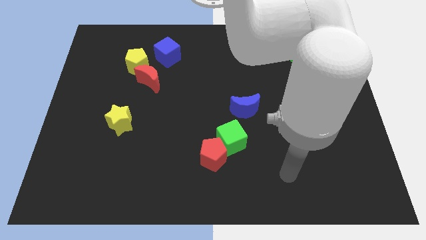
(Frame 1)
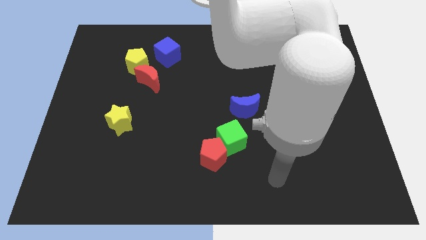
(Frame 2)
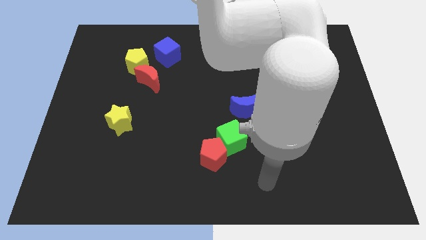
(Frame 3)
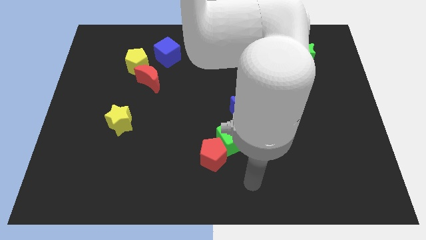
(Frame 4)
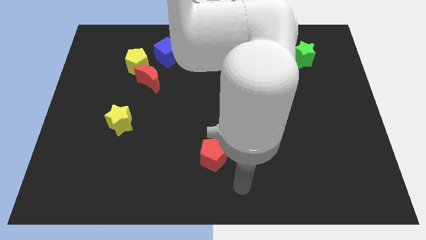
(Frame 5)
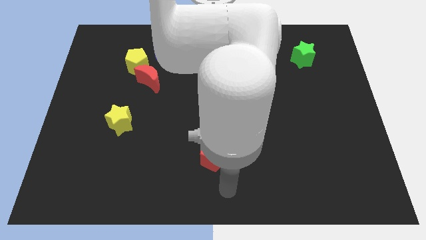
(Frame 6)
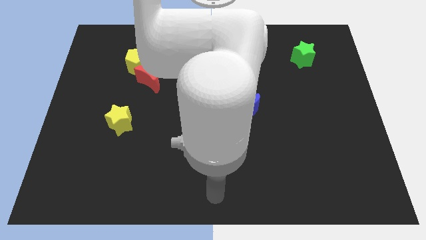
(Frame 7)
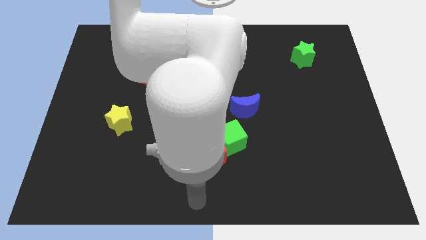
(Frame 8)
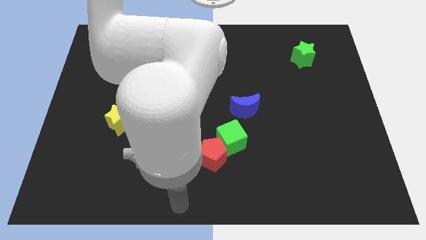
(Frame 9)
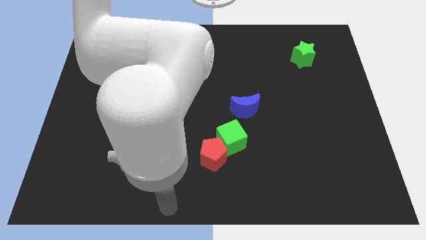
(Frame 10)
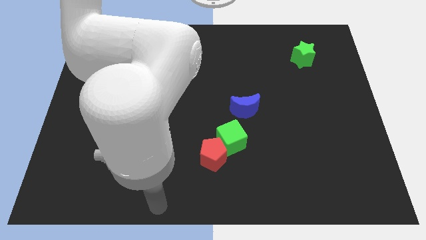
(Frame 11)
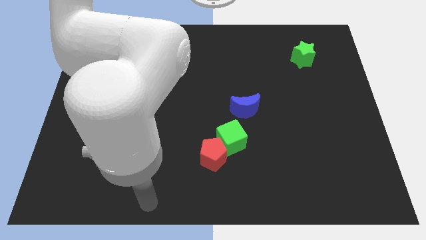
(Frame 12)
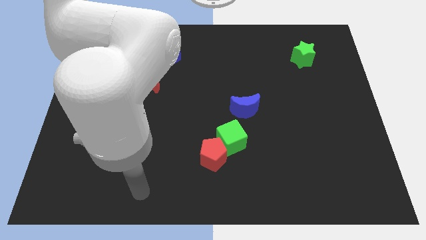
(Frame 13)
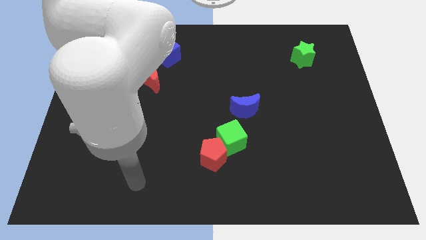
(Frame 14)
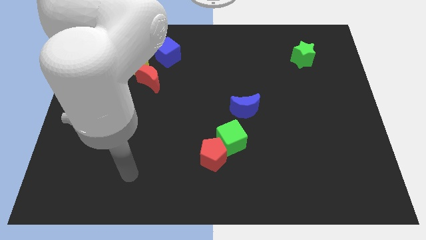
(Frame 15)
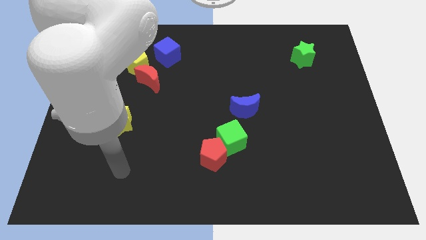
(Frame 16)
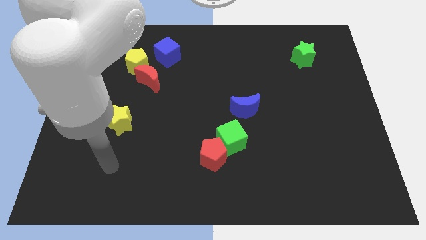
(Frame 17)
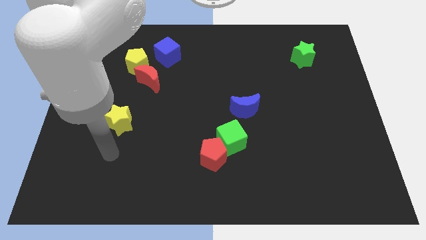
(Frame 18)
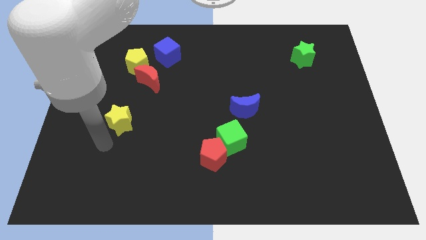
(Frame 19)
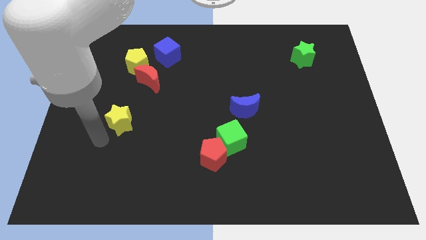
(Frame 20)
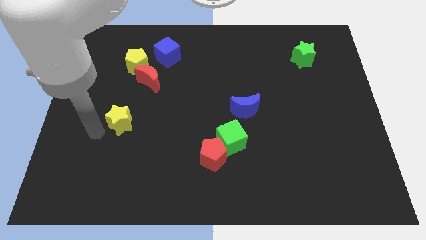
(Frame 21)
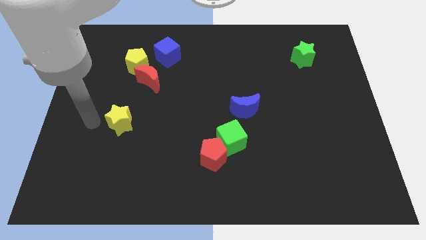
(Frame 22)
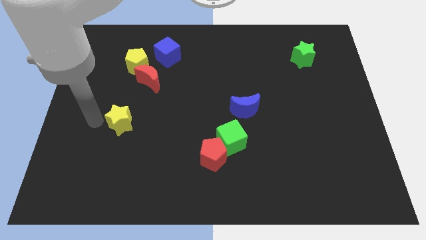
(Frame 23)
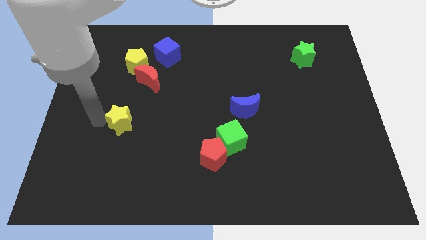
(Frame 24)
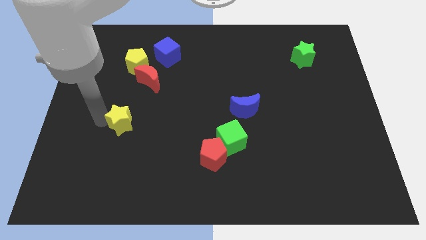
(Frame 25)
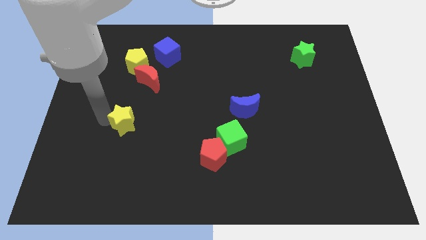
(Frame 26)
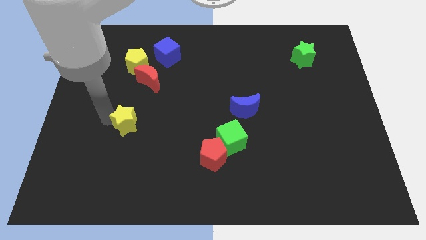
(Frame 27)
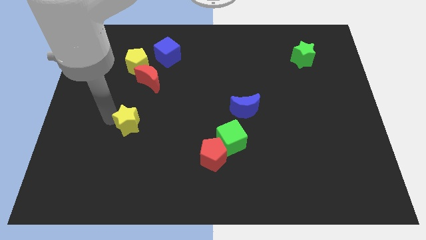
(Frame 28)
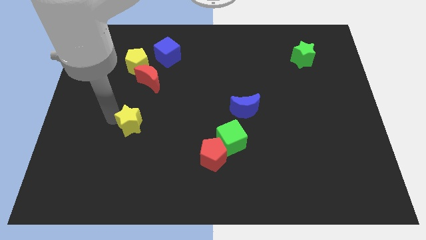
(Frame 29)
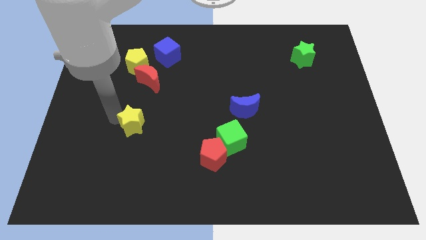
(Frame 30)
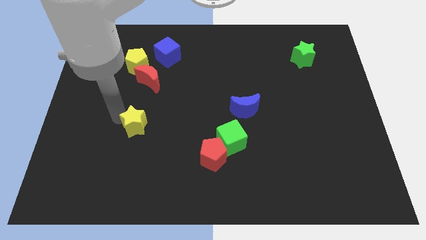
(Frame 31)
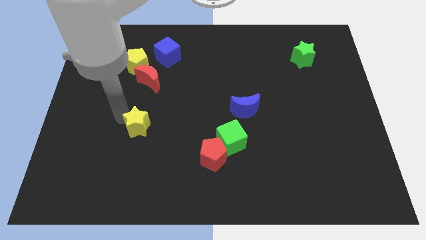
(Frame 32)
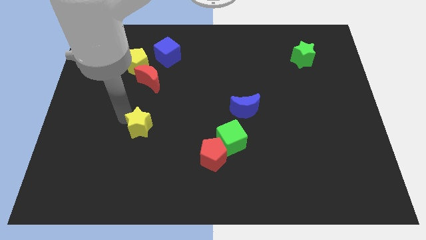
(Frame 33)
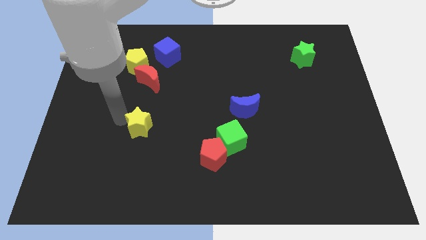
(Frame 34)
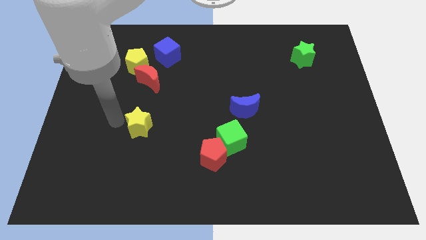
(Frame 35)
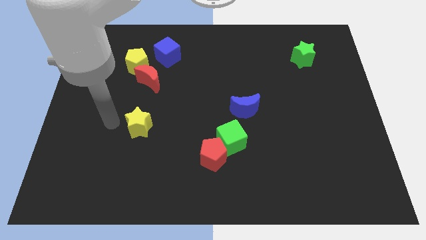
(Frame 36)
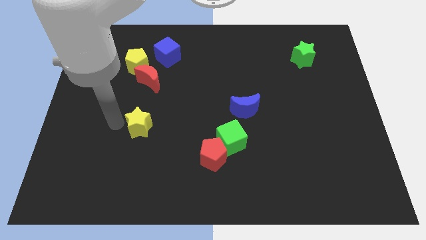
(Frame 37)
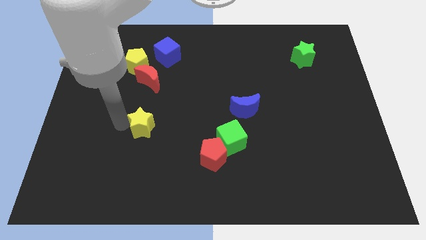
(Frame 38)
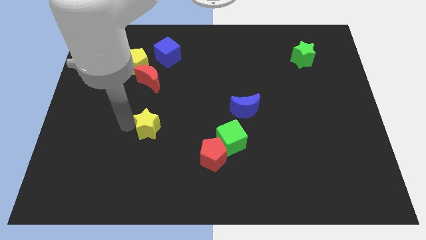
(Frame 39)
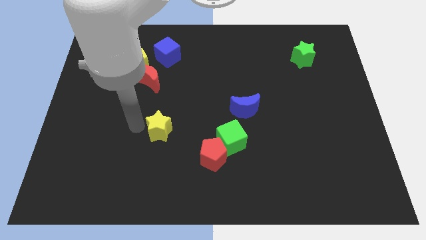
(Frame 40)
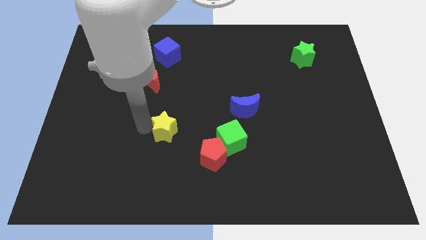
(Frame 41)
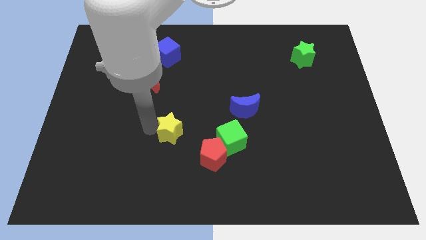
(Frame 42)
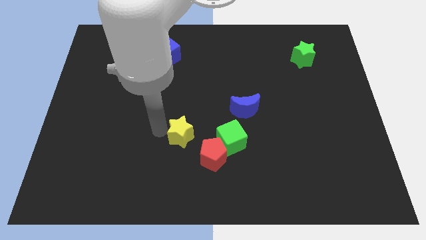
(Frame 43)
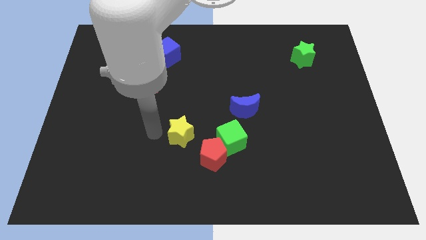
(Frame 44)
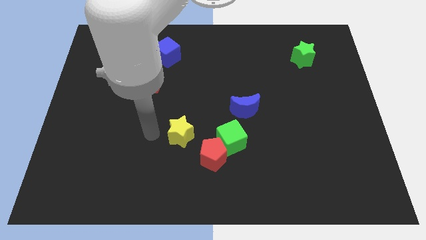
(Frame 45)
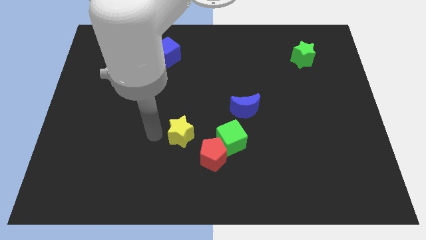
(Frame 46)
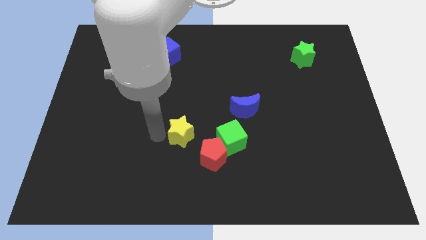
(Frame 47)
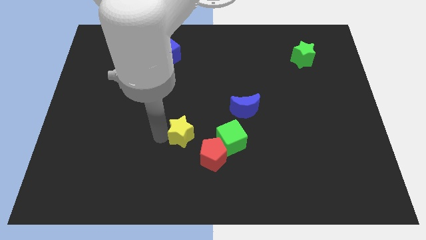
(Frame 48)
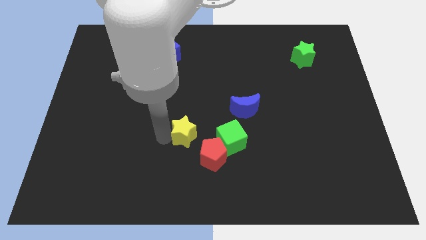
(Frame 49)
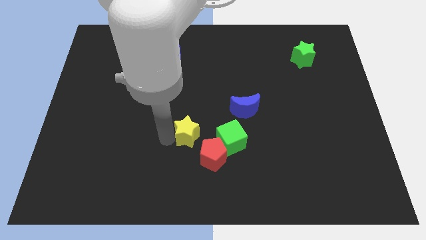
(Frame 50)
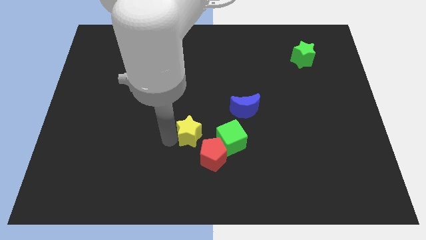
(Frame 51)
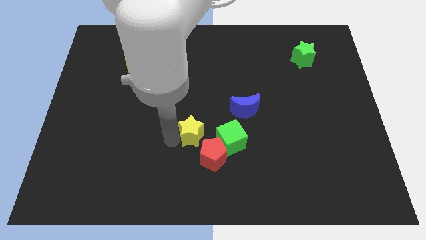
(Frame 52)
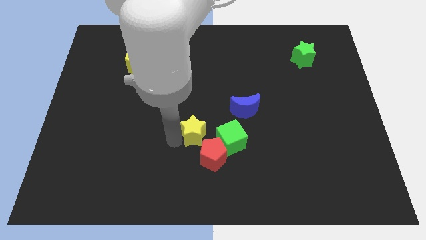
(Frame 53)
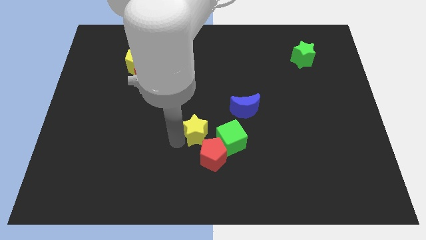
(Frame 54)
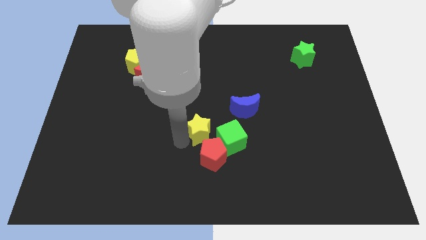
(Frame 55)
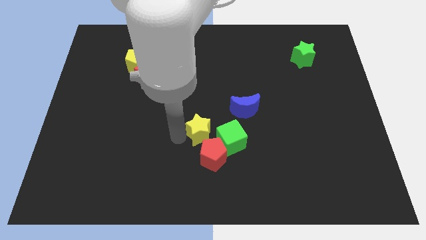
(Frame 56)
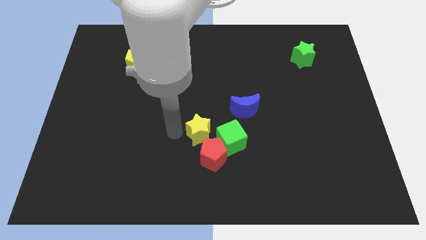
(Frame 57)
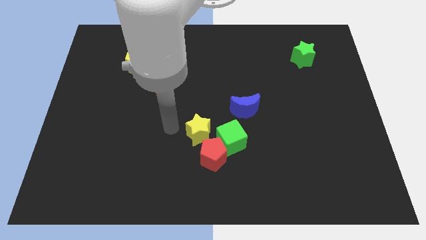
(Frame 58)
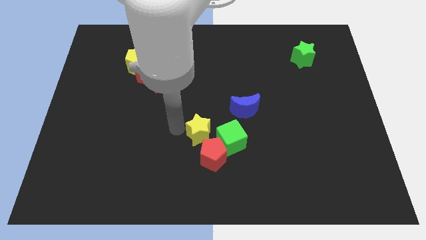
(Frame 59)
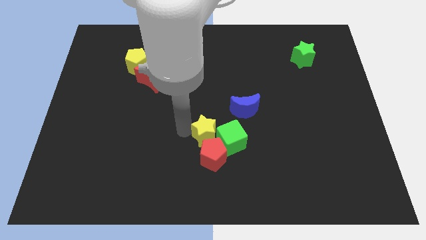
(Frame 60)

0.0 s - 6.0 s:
slide the yellow star close to the green cube

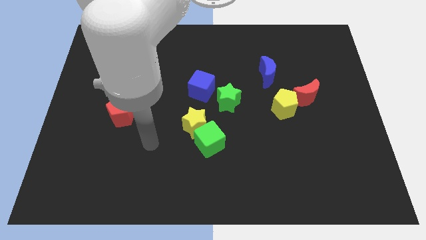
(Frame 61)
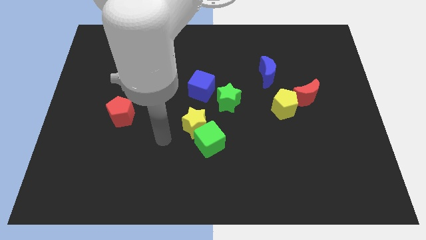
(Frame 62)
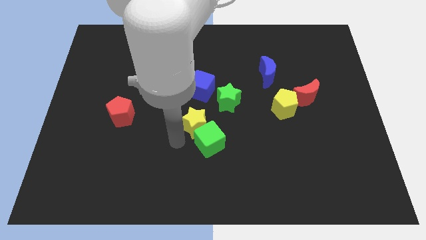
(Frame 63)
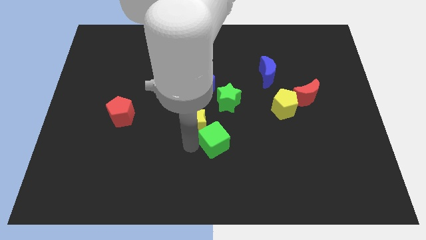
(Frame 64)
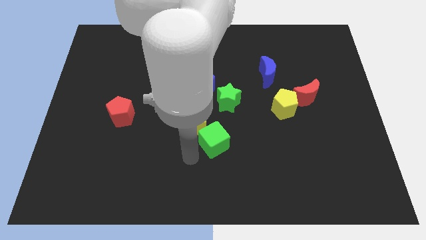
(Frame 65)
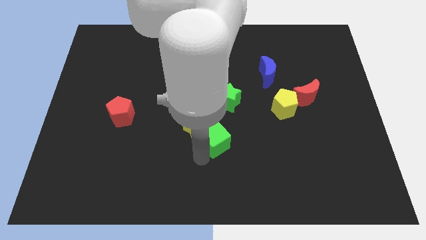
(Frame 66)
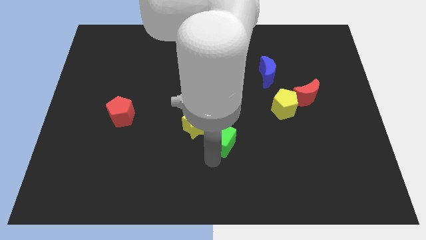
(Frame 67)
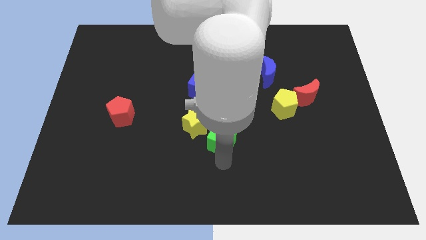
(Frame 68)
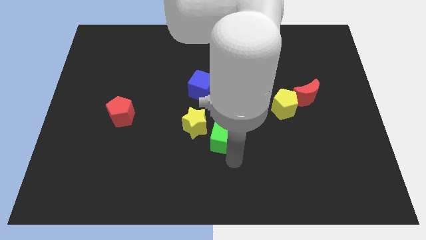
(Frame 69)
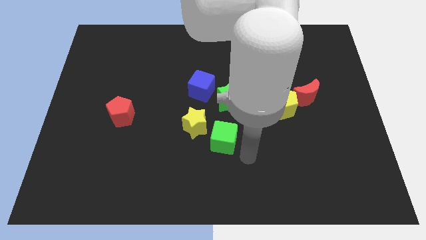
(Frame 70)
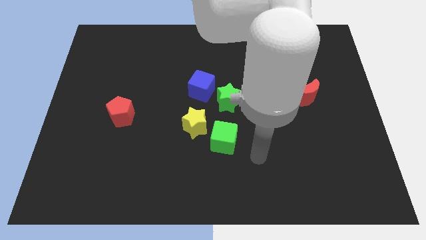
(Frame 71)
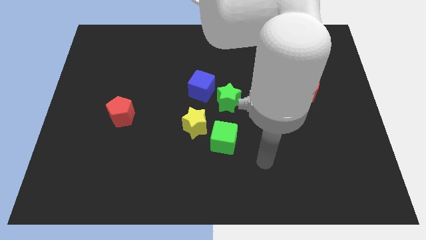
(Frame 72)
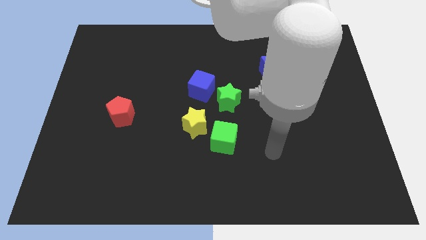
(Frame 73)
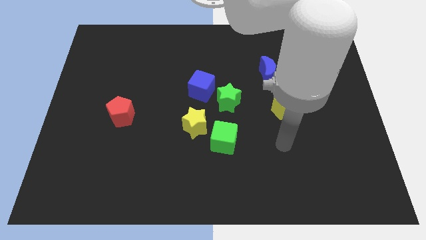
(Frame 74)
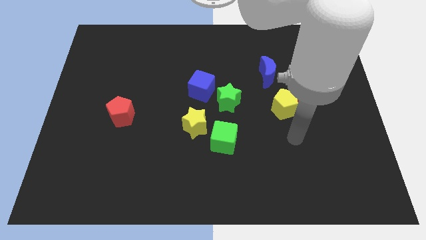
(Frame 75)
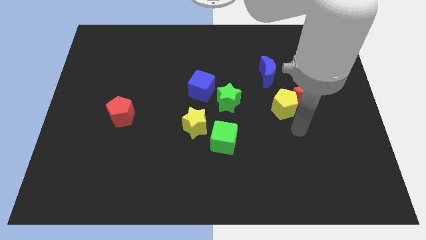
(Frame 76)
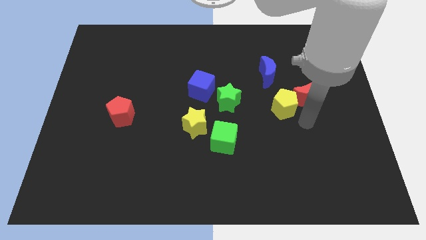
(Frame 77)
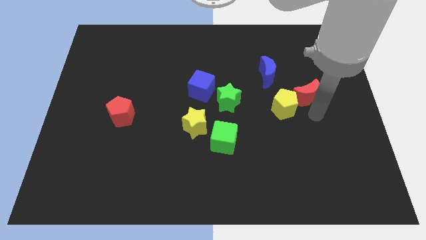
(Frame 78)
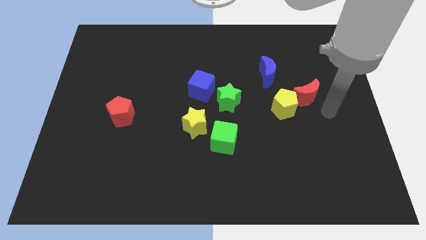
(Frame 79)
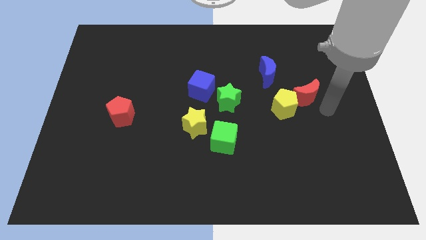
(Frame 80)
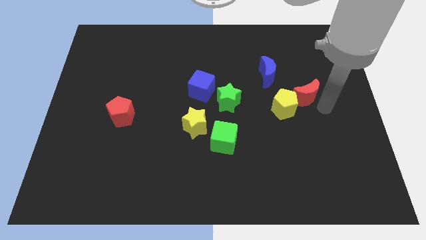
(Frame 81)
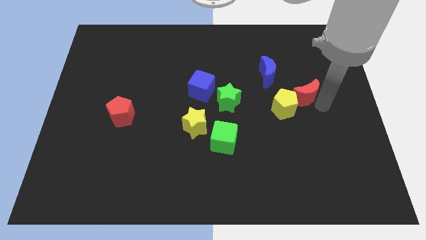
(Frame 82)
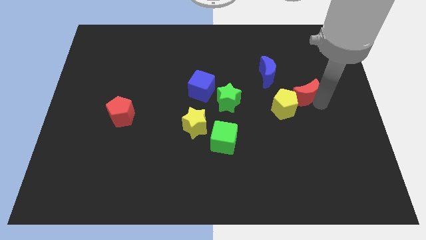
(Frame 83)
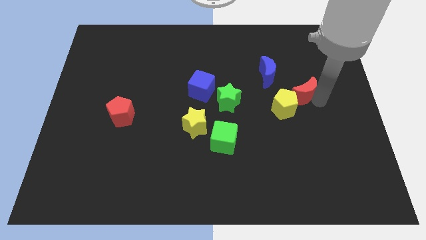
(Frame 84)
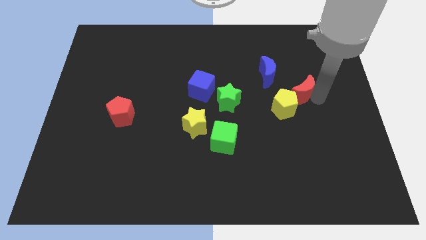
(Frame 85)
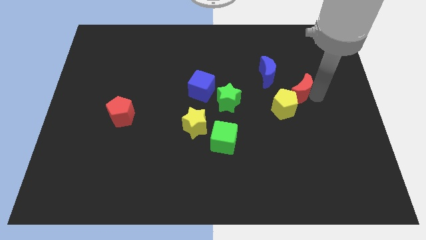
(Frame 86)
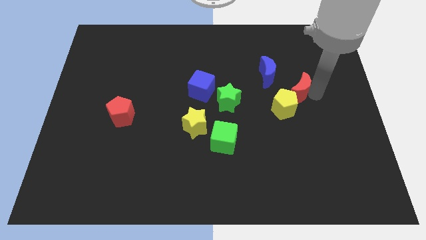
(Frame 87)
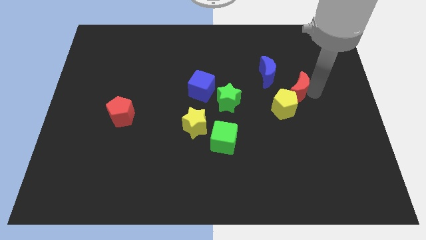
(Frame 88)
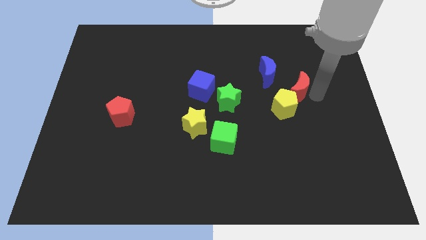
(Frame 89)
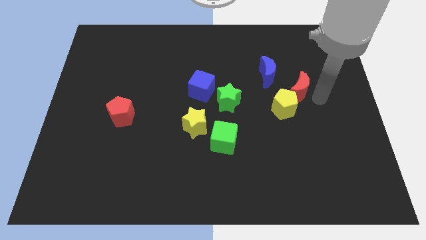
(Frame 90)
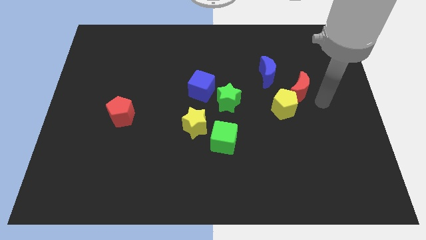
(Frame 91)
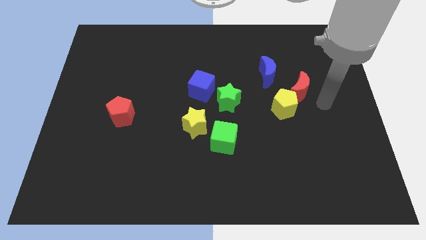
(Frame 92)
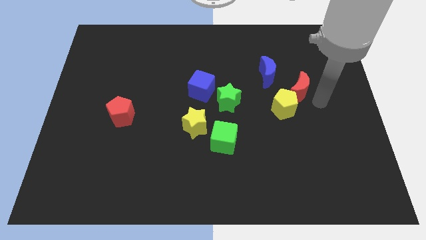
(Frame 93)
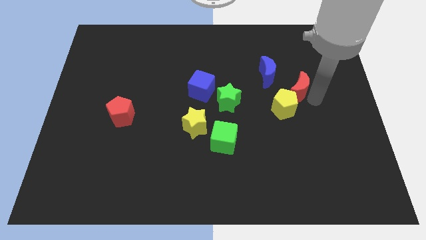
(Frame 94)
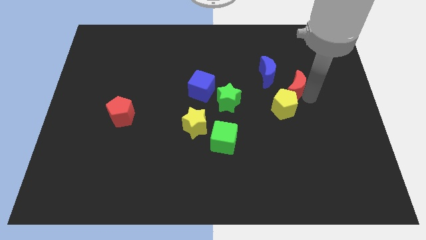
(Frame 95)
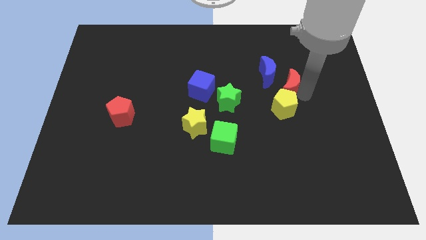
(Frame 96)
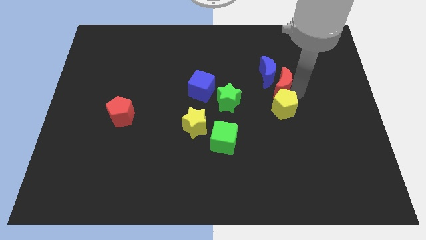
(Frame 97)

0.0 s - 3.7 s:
put the red moon close to the blue moon
